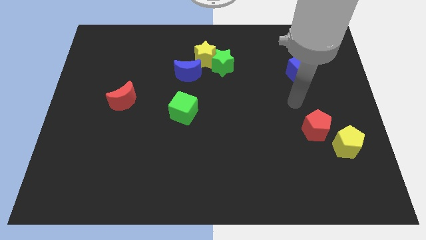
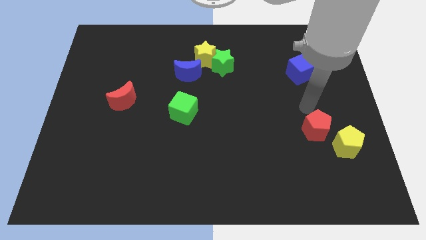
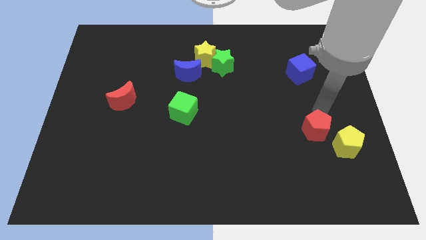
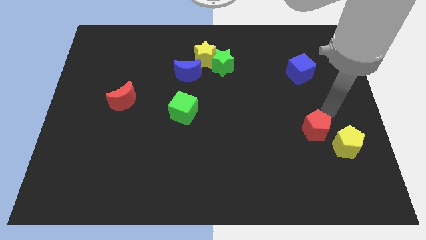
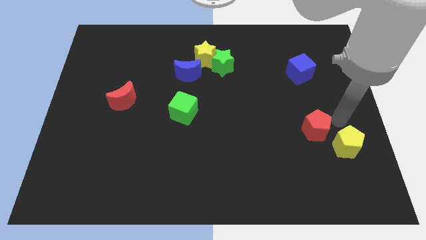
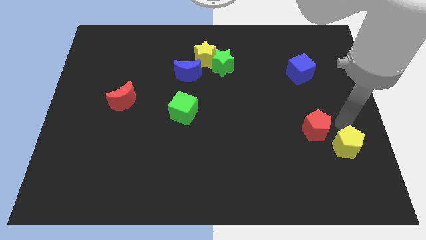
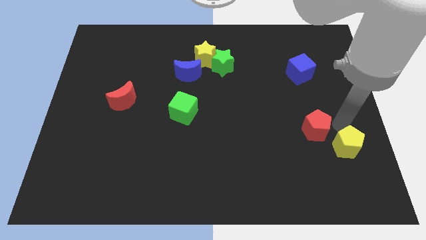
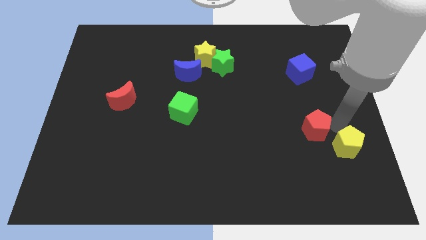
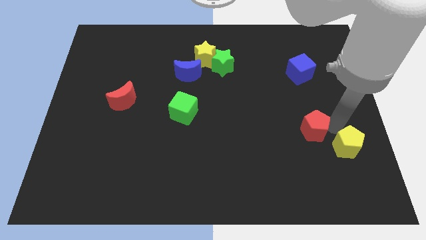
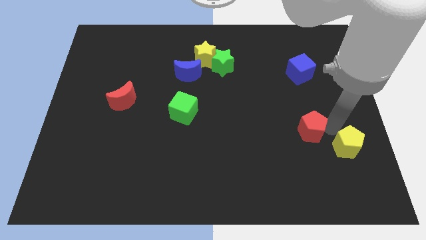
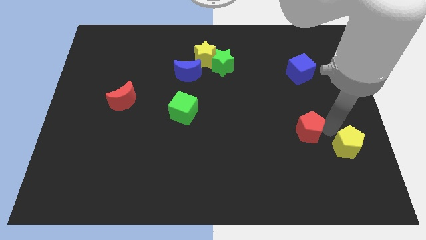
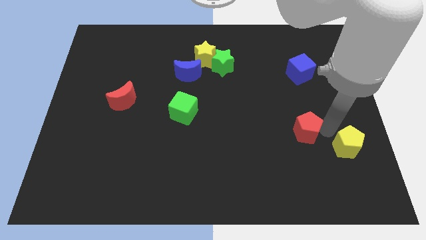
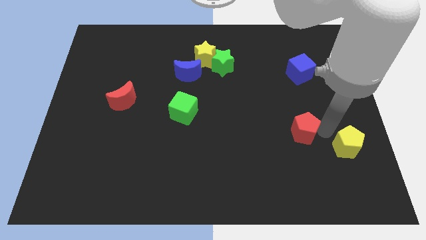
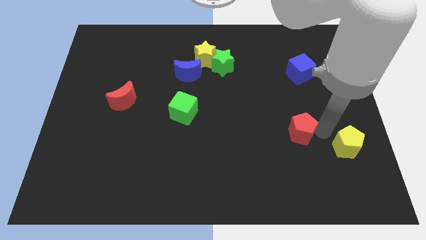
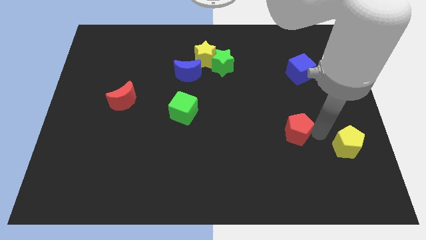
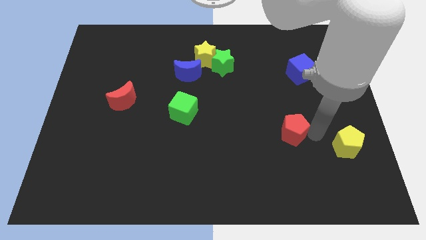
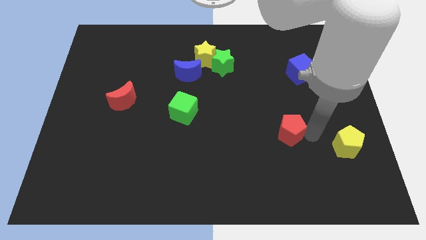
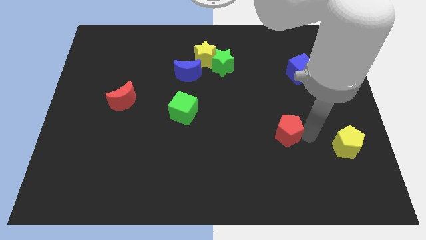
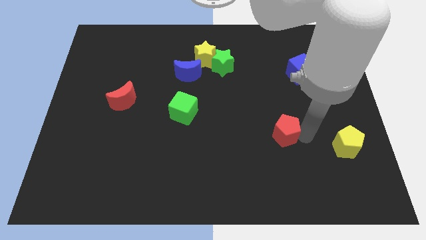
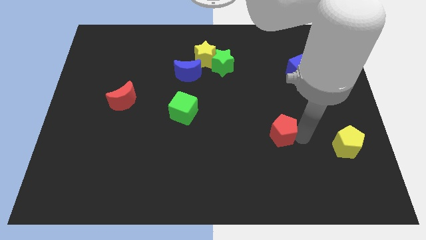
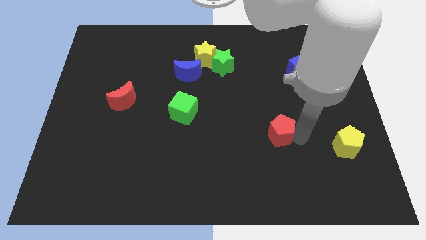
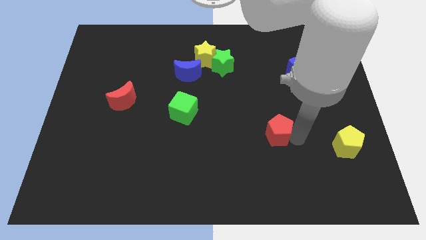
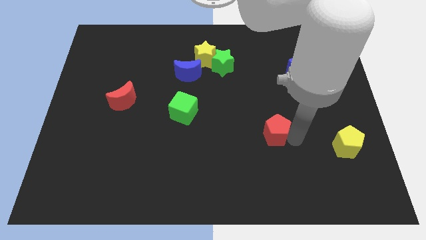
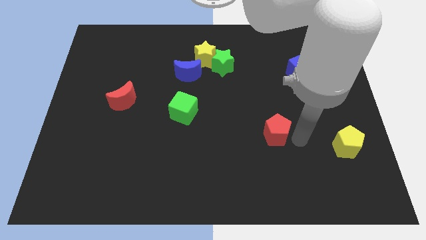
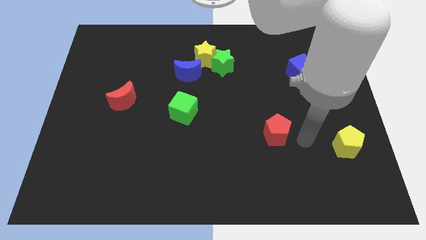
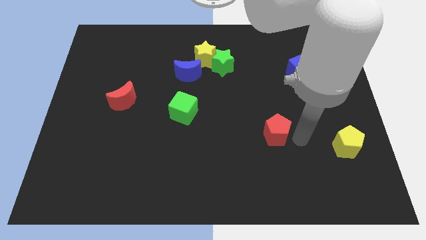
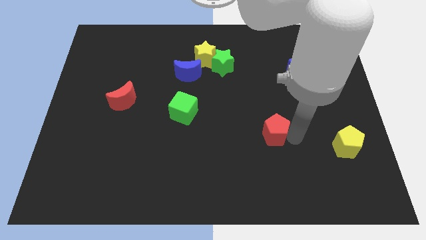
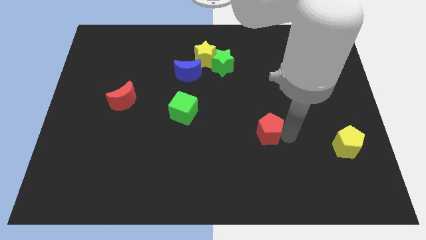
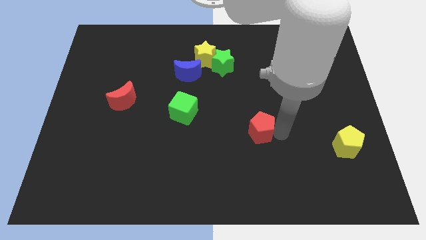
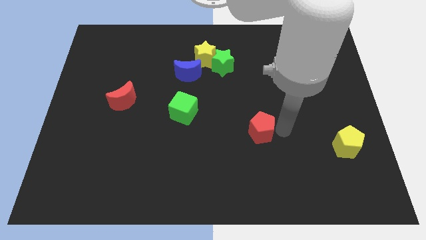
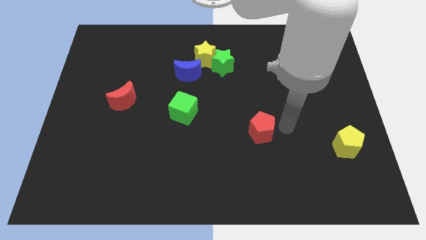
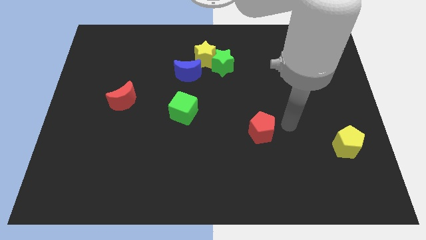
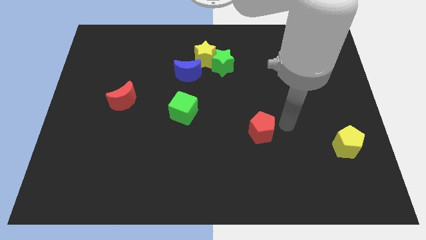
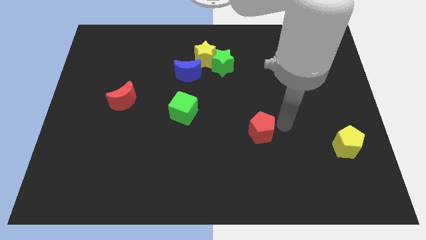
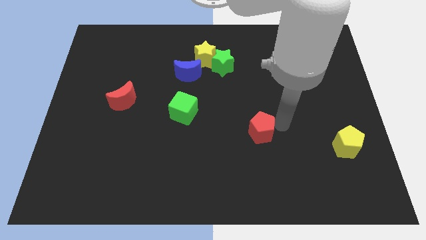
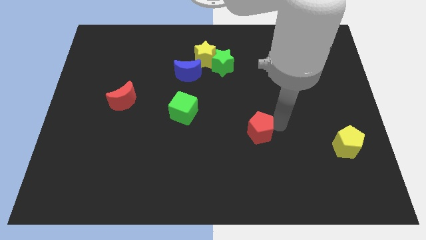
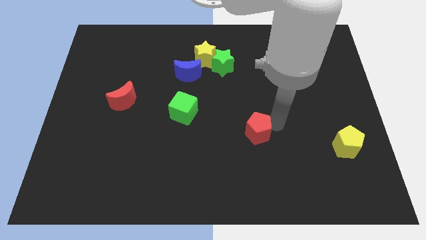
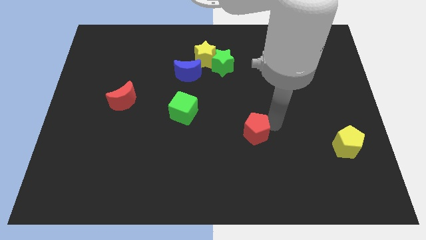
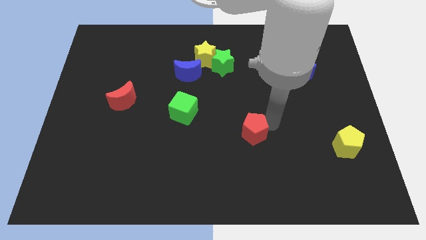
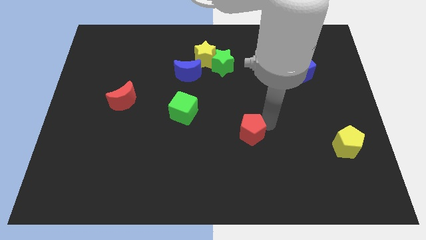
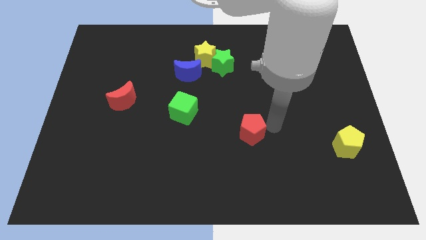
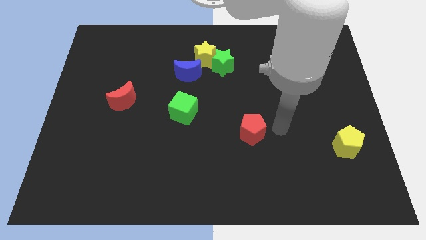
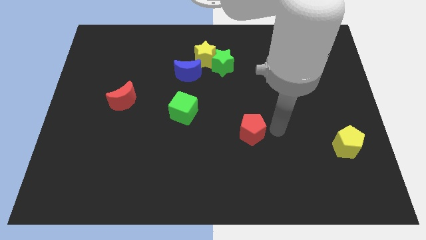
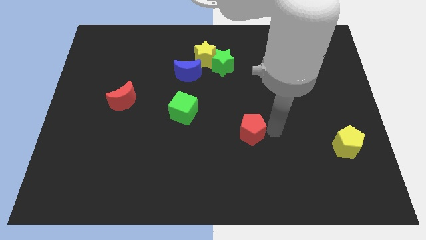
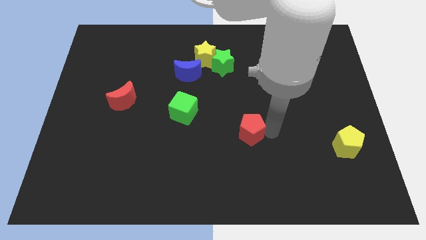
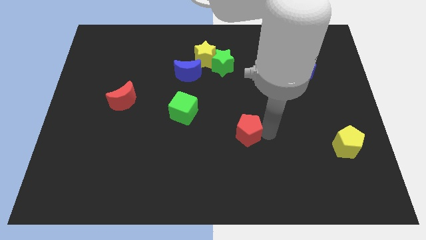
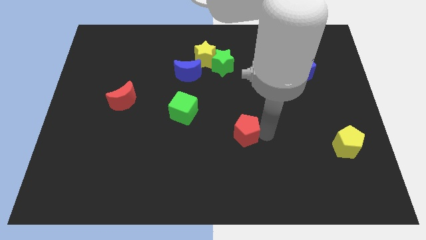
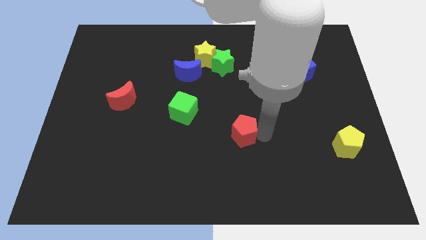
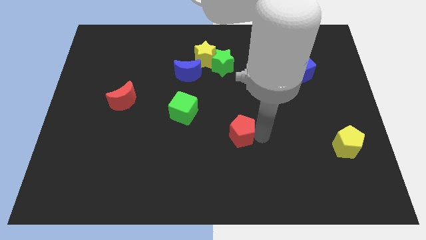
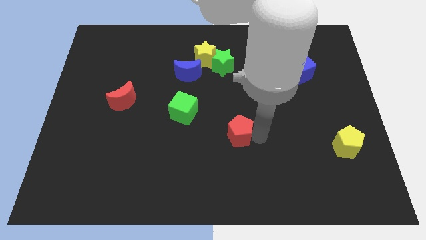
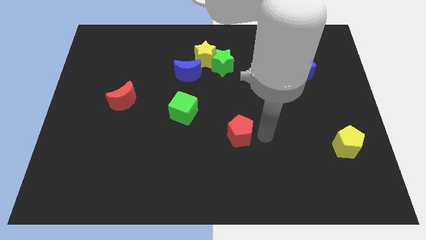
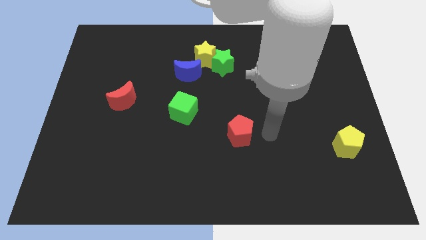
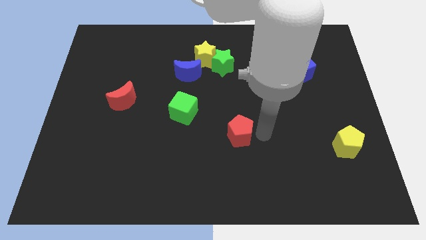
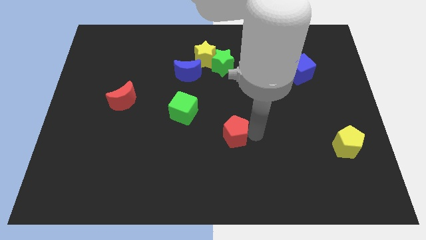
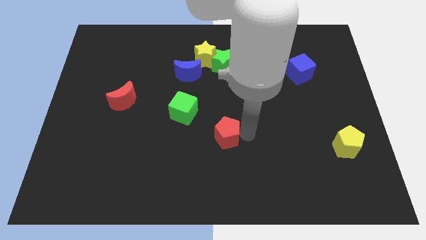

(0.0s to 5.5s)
push the red pentagon left

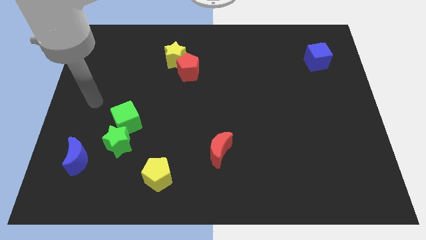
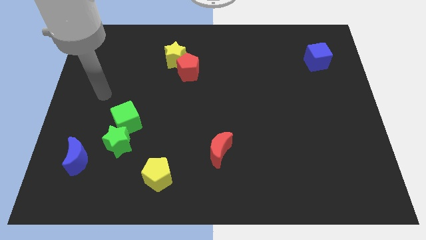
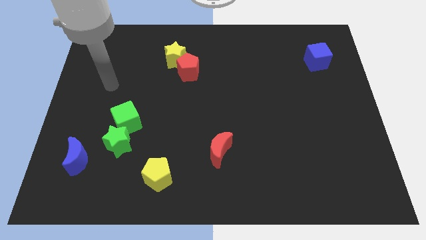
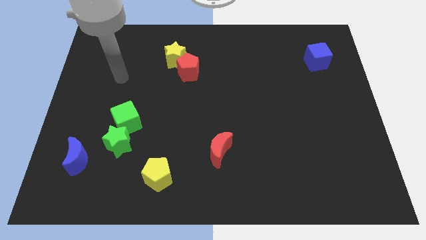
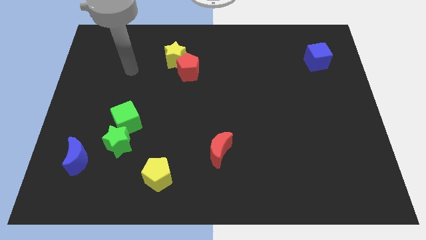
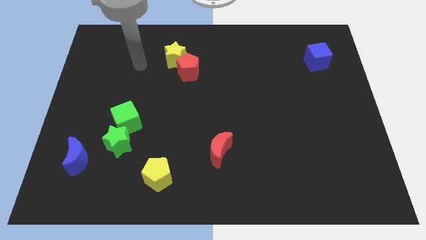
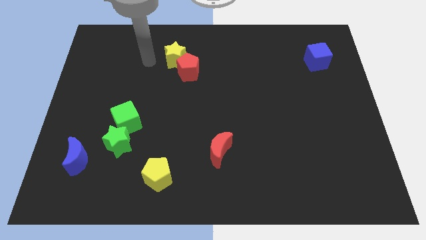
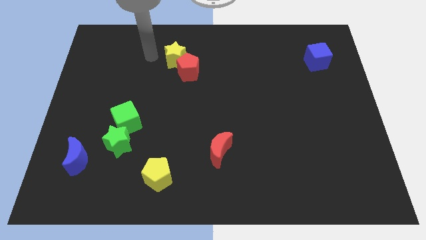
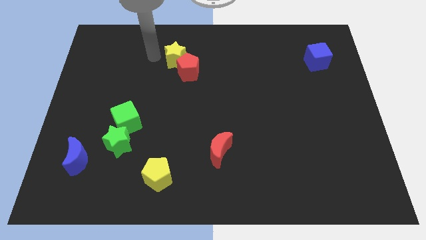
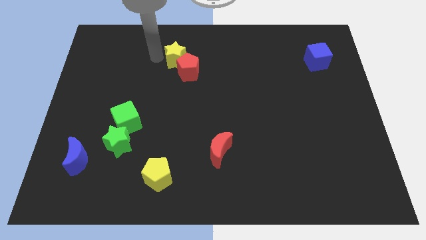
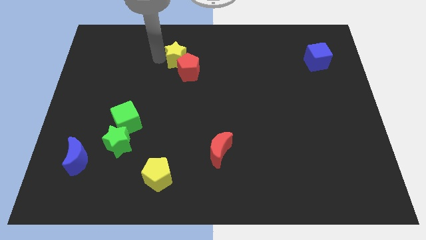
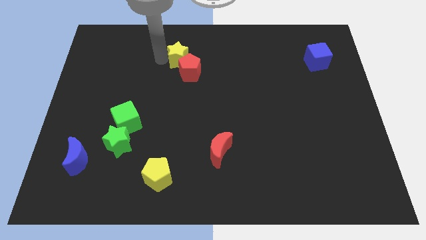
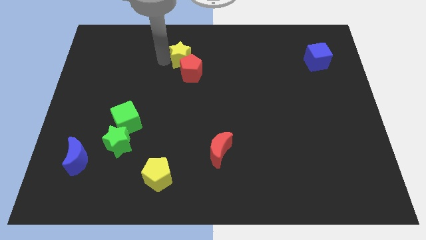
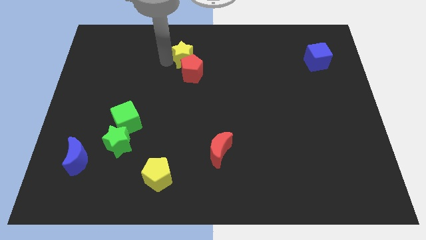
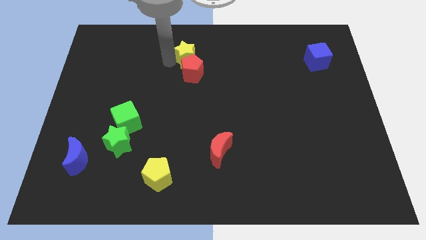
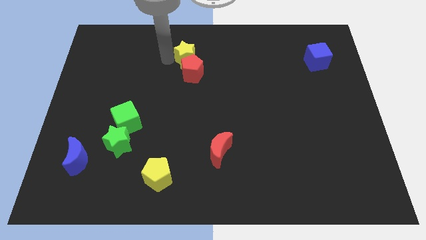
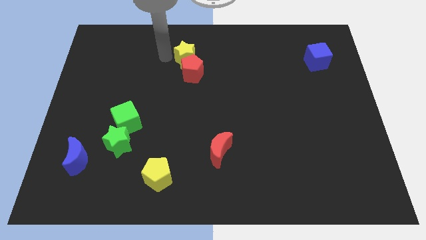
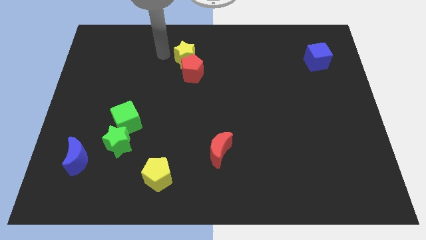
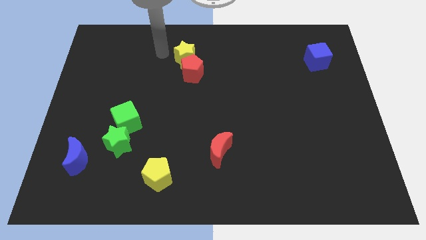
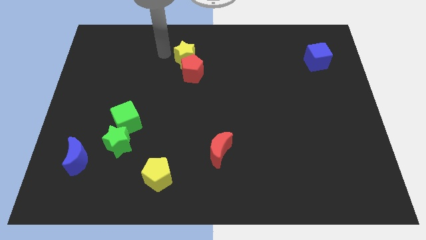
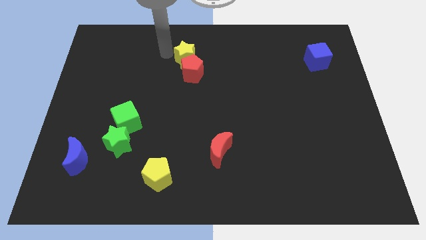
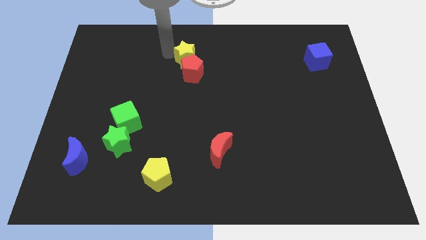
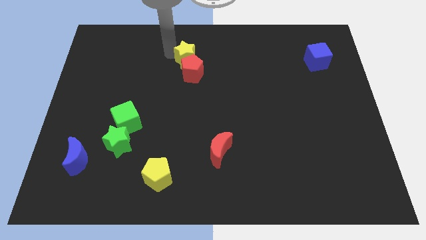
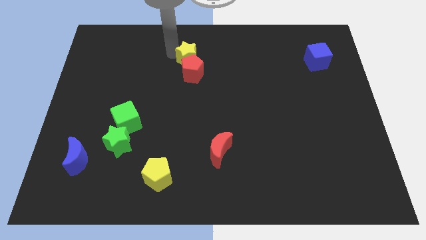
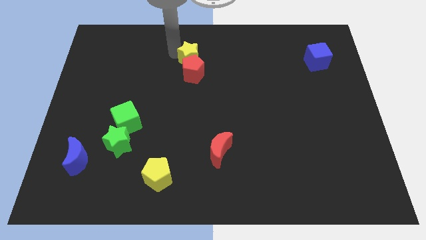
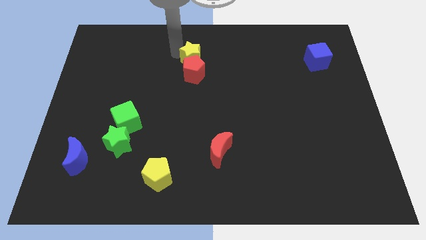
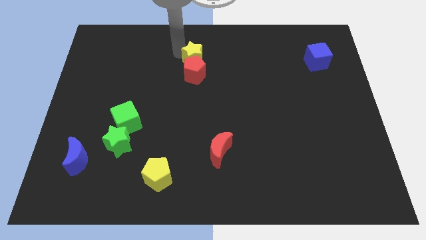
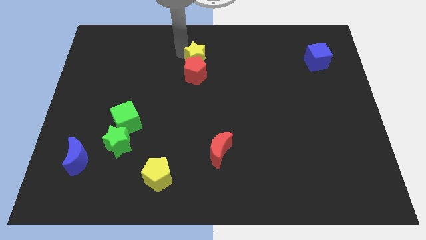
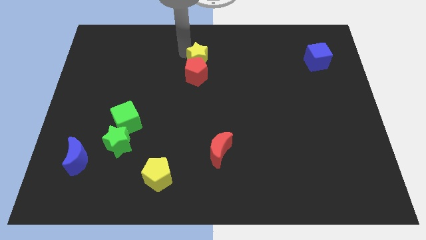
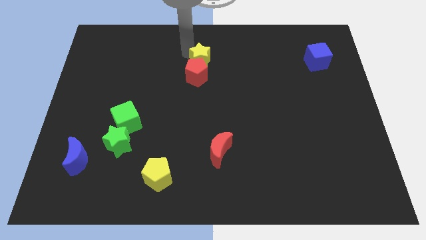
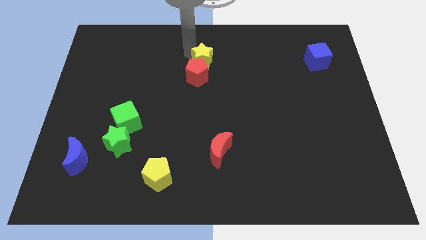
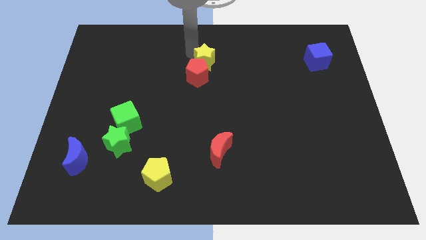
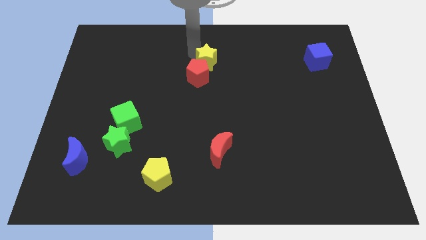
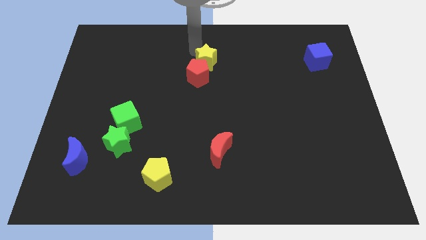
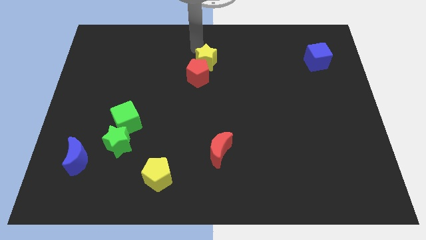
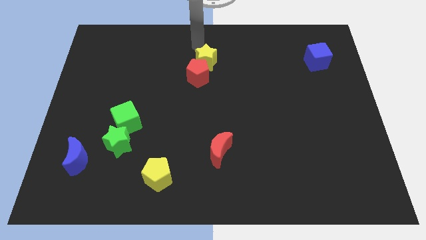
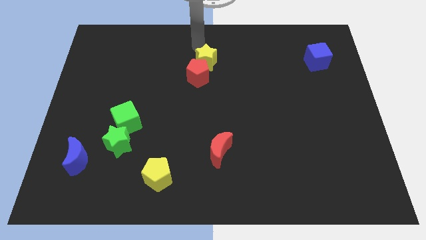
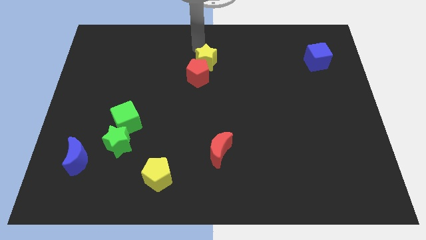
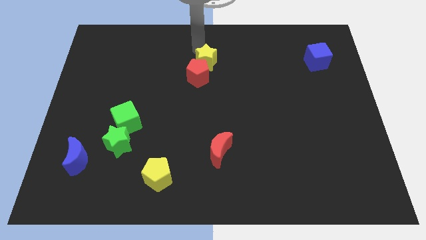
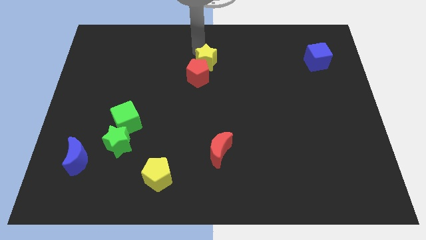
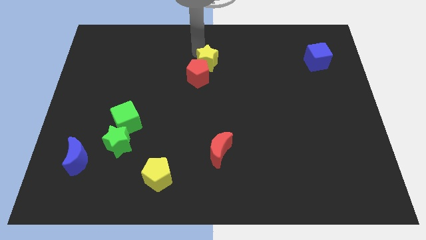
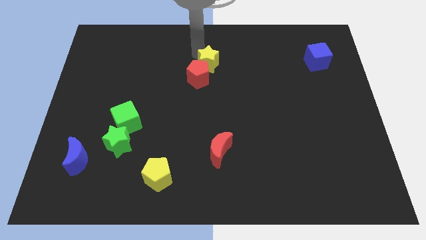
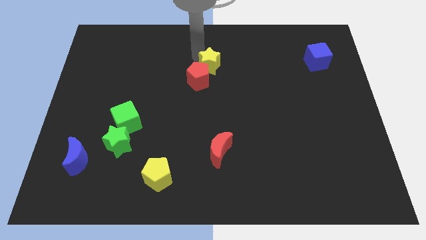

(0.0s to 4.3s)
slide the yellow star diagonally down and right slightly
